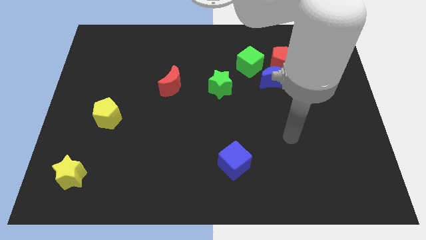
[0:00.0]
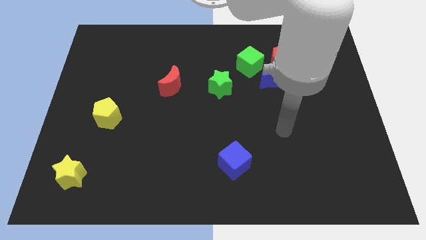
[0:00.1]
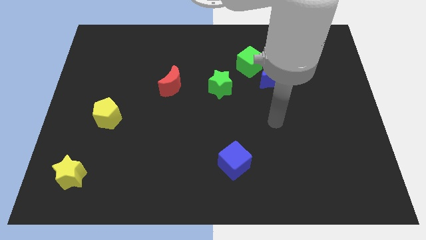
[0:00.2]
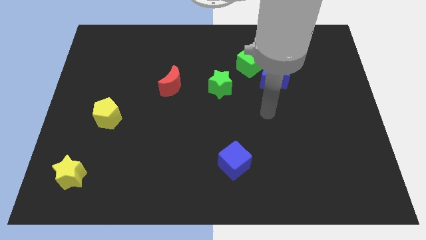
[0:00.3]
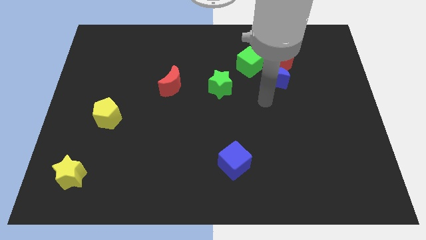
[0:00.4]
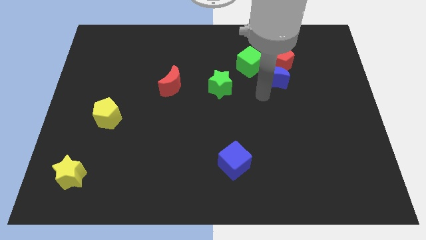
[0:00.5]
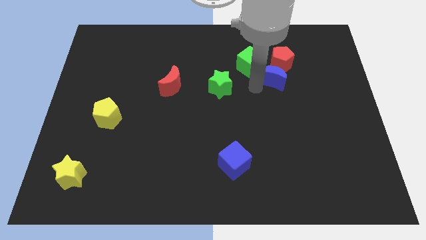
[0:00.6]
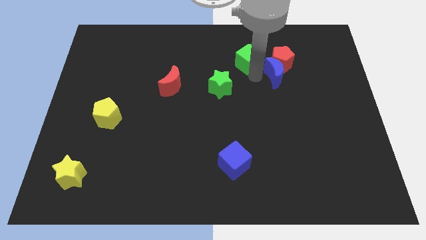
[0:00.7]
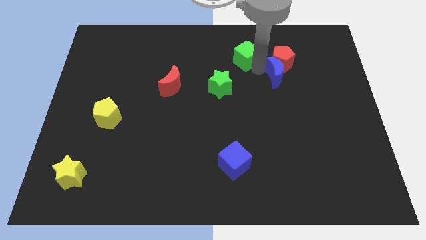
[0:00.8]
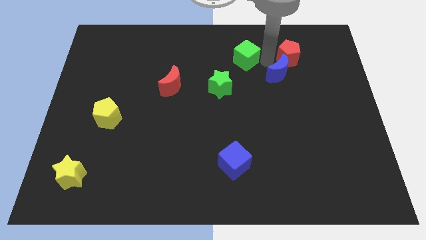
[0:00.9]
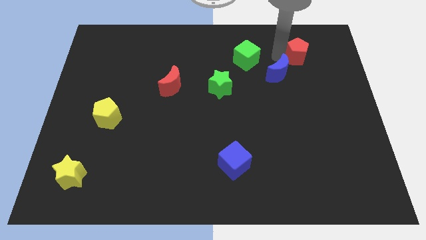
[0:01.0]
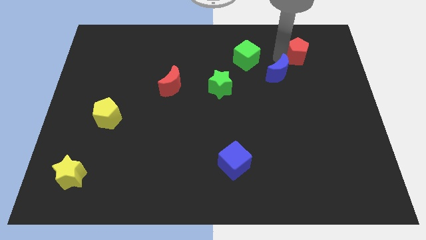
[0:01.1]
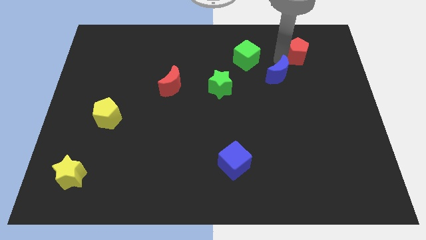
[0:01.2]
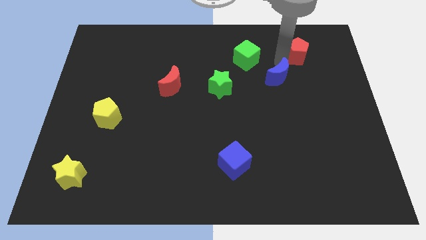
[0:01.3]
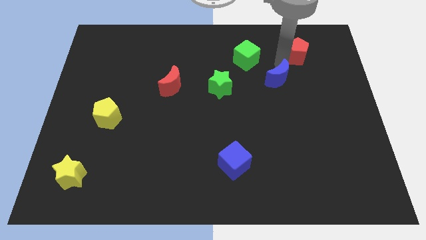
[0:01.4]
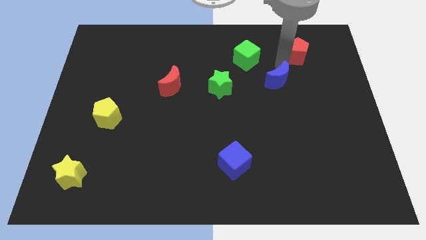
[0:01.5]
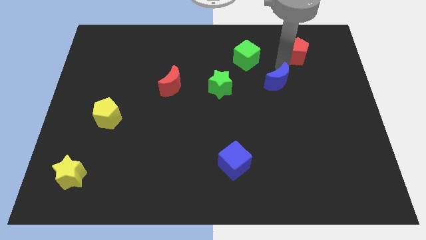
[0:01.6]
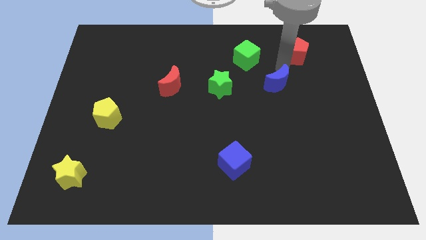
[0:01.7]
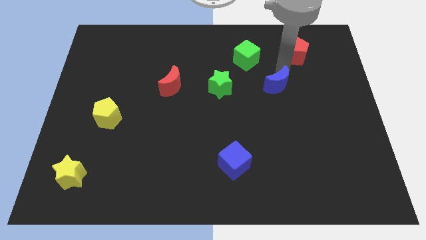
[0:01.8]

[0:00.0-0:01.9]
separate the blue moon from the red pentagon and green cube

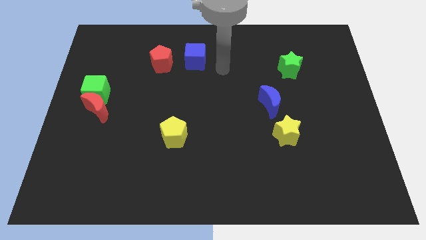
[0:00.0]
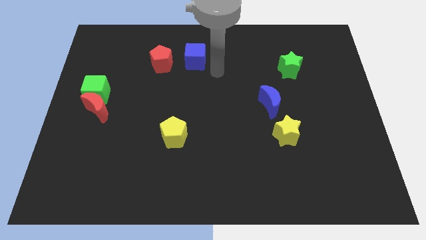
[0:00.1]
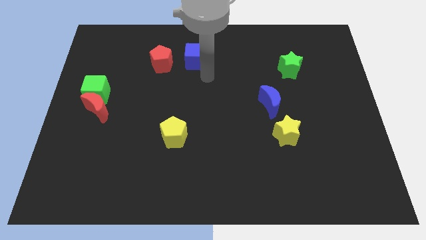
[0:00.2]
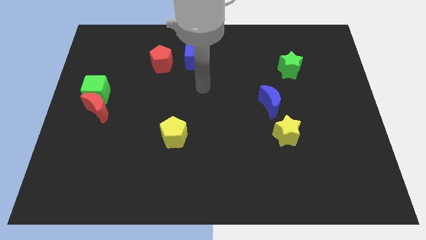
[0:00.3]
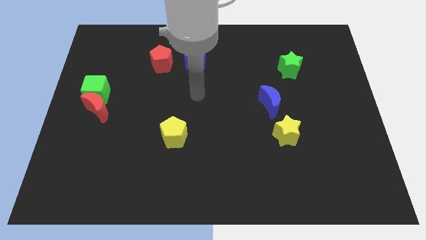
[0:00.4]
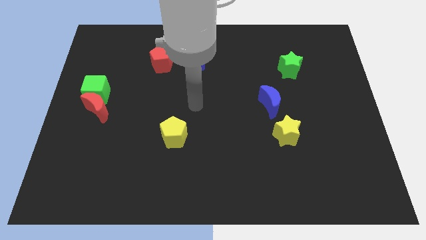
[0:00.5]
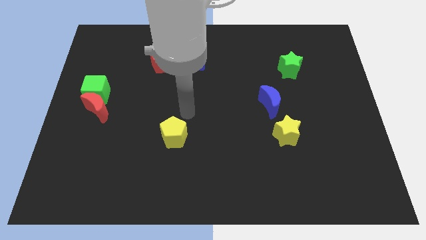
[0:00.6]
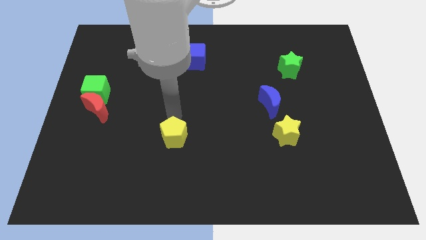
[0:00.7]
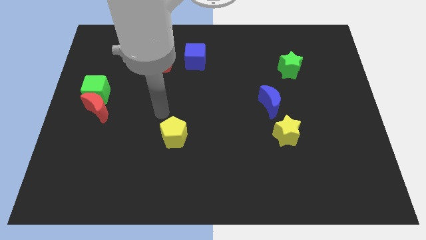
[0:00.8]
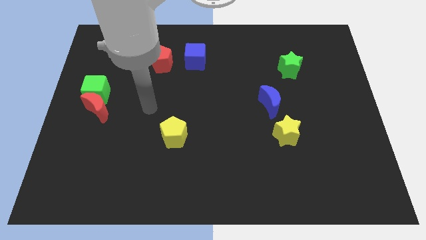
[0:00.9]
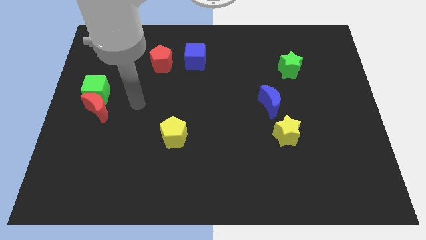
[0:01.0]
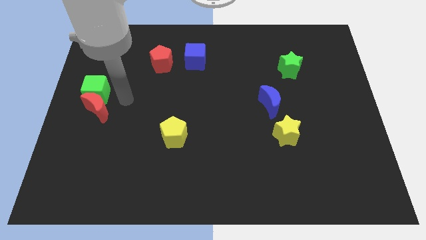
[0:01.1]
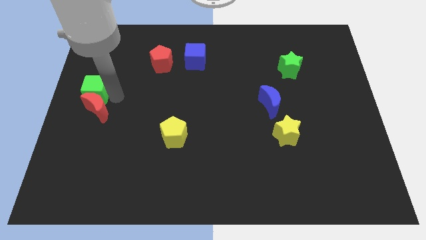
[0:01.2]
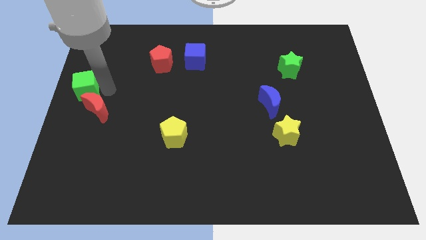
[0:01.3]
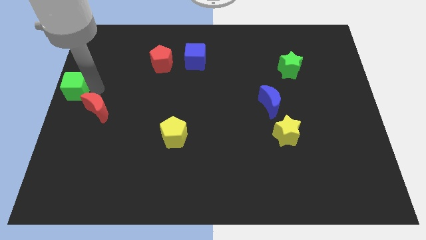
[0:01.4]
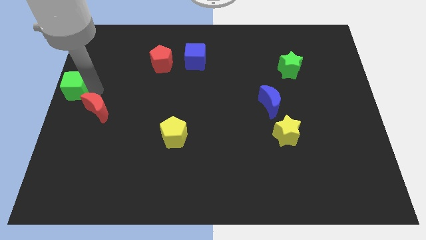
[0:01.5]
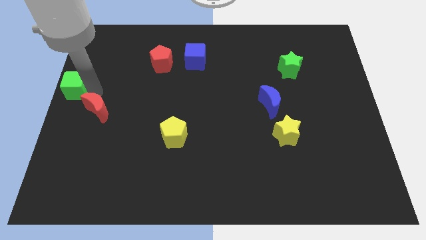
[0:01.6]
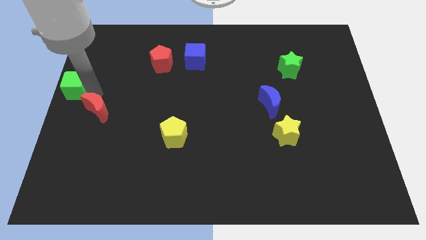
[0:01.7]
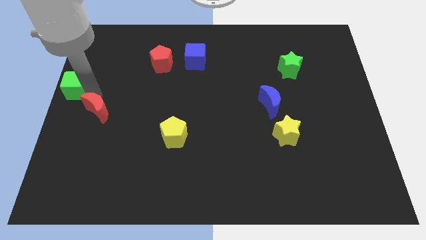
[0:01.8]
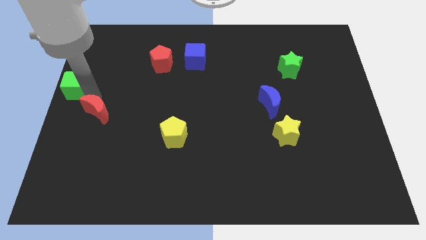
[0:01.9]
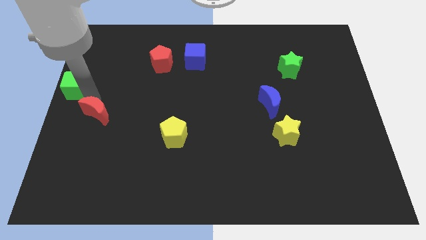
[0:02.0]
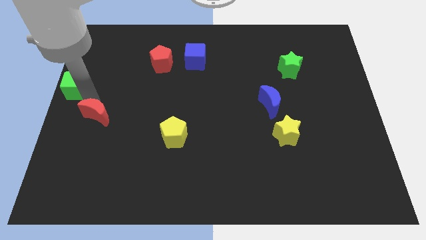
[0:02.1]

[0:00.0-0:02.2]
pull the red moon apart from the green cube

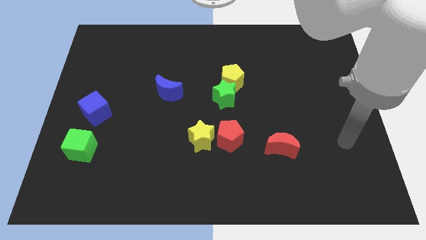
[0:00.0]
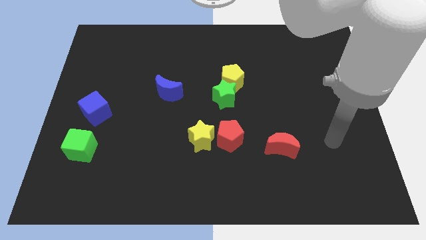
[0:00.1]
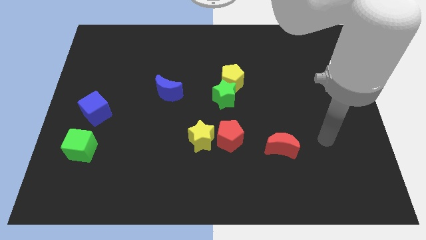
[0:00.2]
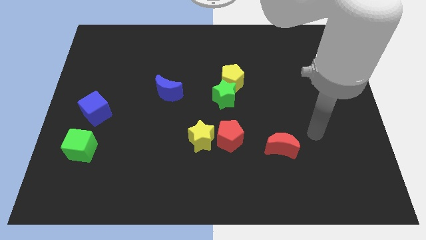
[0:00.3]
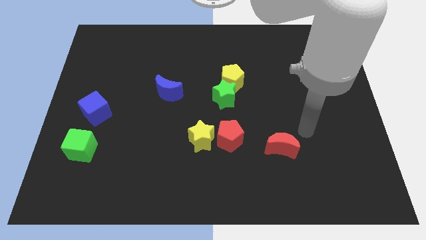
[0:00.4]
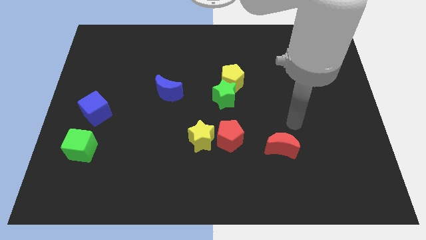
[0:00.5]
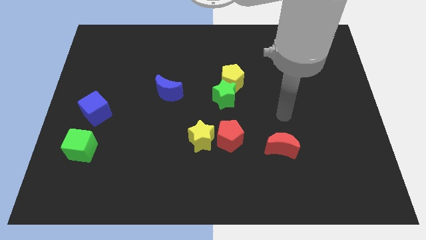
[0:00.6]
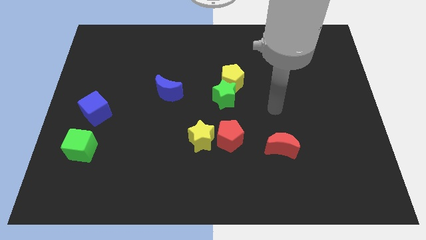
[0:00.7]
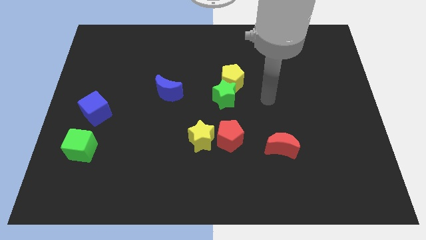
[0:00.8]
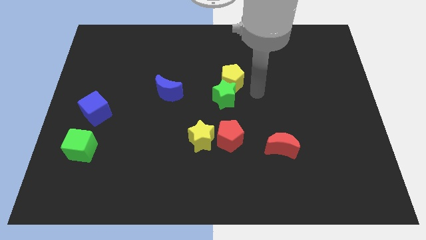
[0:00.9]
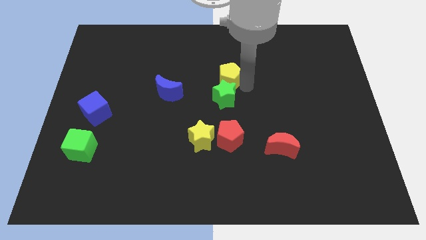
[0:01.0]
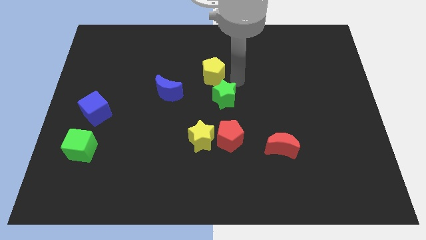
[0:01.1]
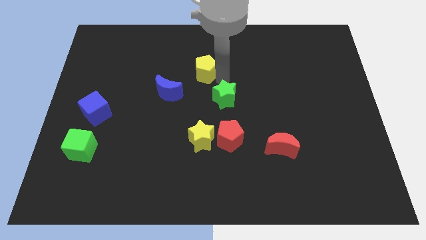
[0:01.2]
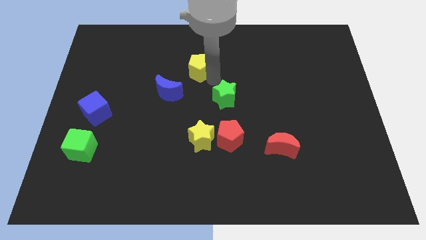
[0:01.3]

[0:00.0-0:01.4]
pull the green star apart from the yellow pentagon

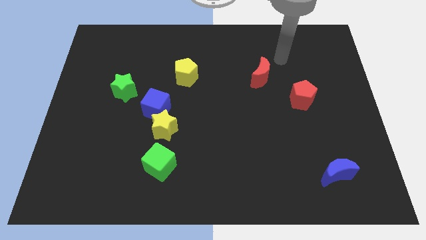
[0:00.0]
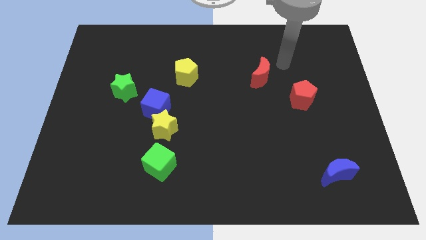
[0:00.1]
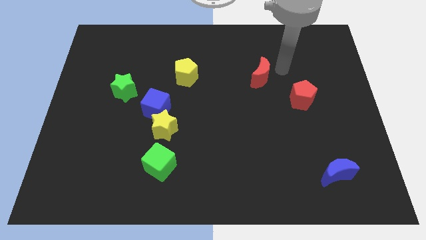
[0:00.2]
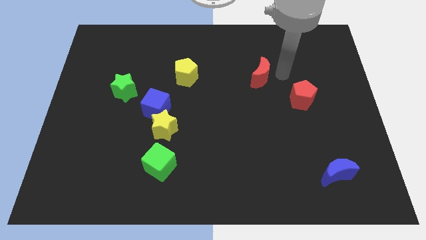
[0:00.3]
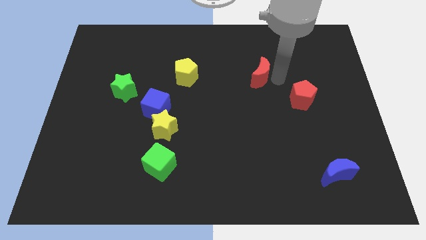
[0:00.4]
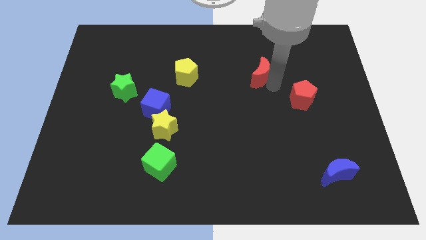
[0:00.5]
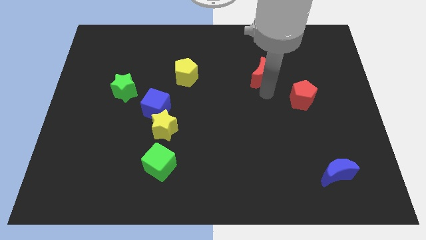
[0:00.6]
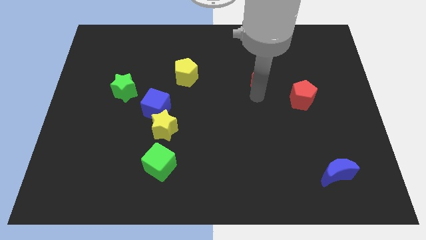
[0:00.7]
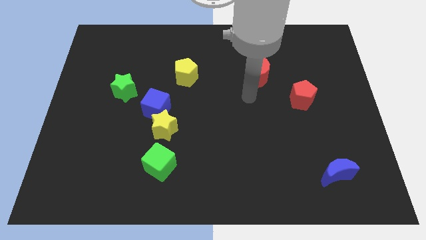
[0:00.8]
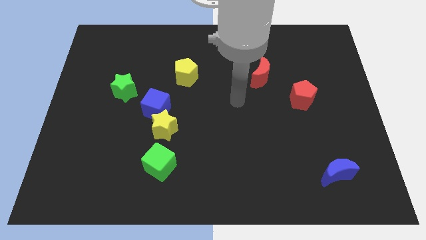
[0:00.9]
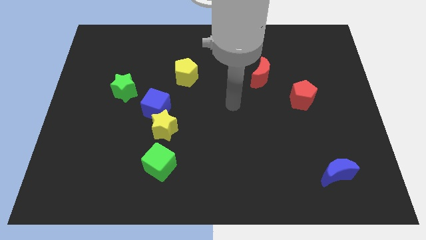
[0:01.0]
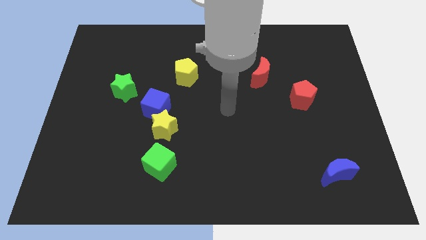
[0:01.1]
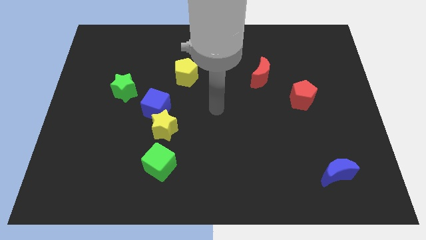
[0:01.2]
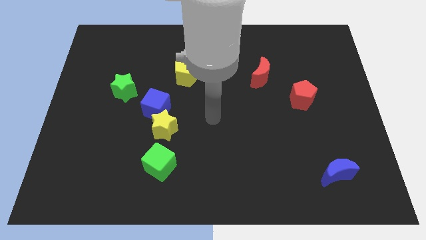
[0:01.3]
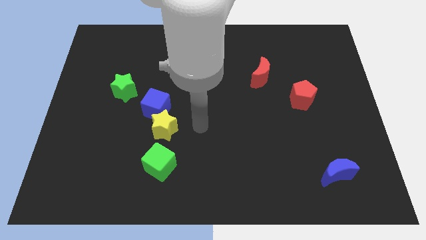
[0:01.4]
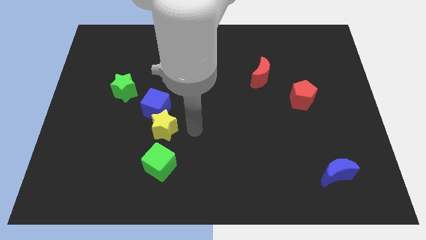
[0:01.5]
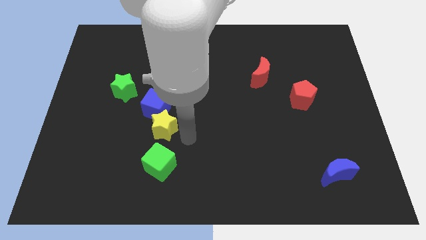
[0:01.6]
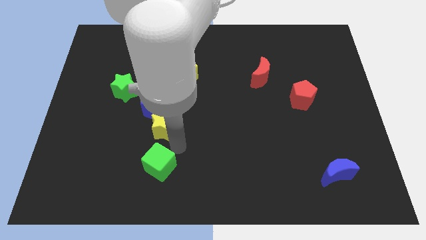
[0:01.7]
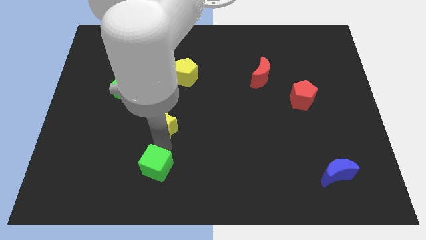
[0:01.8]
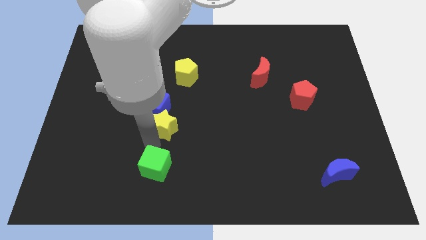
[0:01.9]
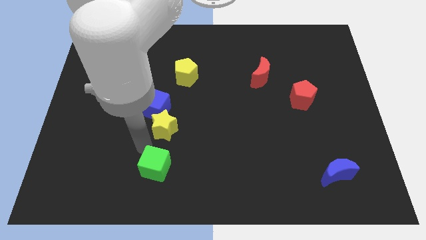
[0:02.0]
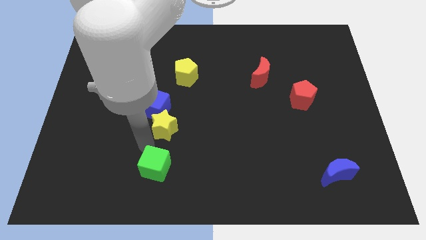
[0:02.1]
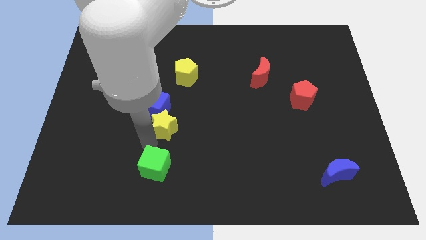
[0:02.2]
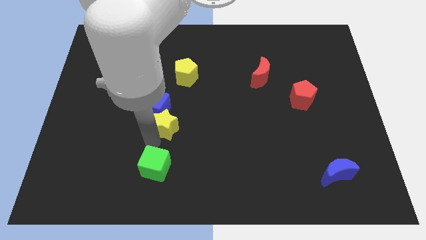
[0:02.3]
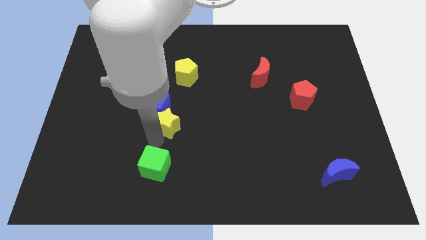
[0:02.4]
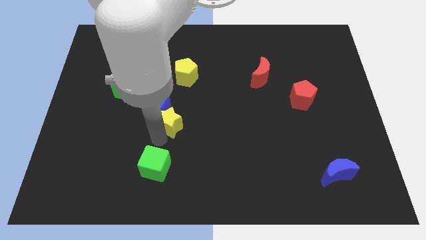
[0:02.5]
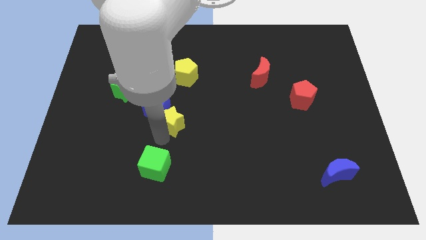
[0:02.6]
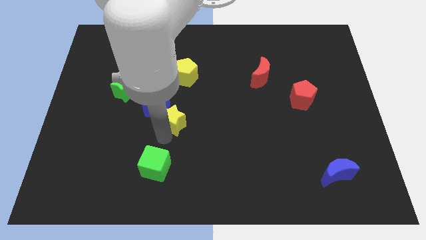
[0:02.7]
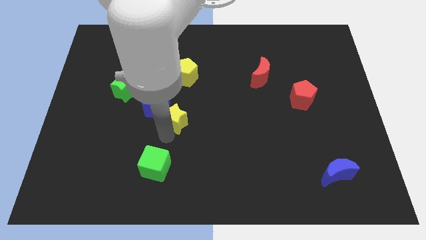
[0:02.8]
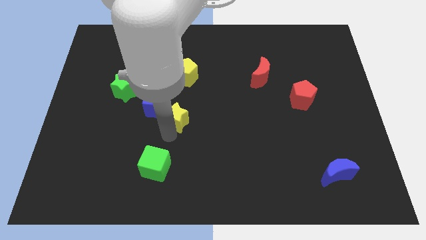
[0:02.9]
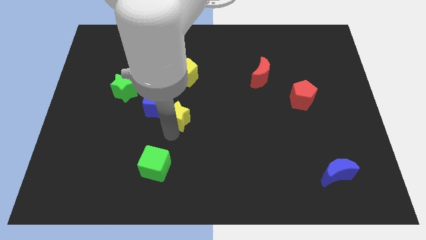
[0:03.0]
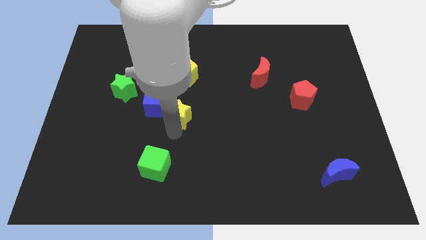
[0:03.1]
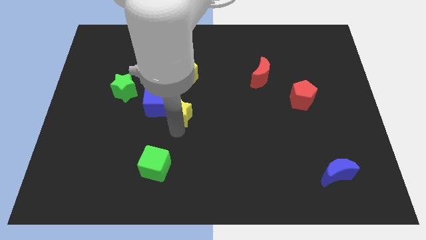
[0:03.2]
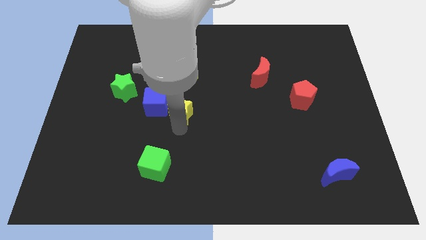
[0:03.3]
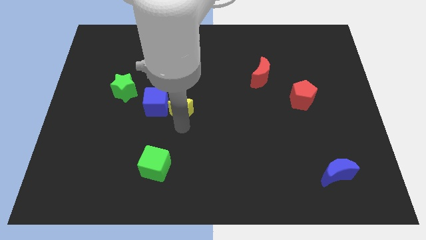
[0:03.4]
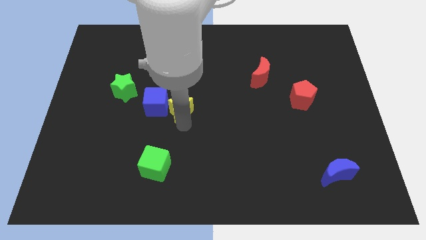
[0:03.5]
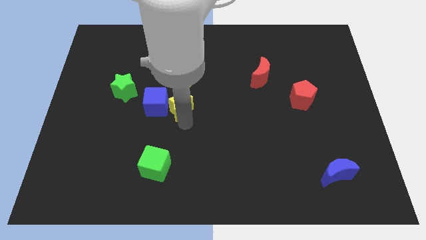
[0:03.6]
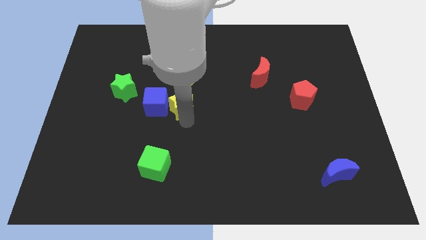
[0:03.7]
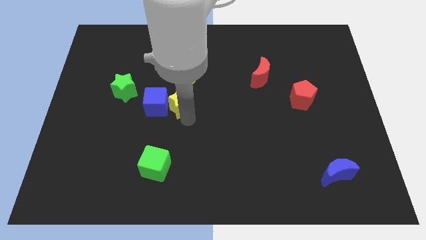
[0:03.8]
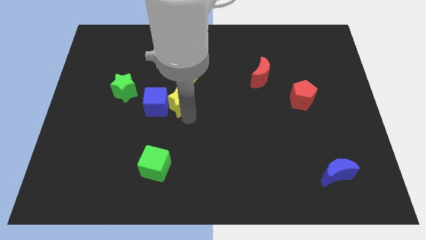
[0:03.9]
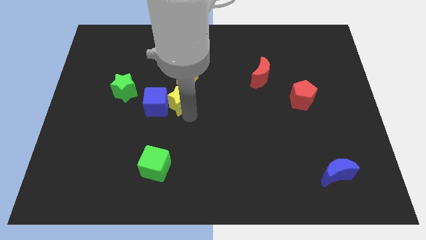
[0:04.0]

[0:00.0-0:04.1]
pull the yellow star apart from the blue cube and green cube
